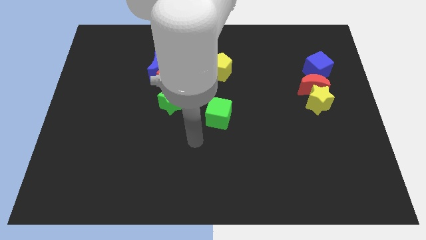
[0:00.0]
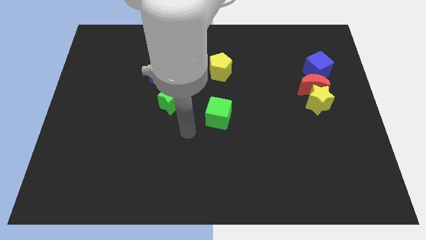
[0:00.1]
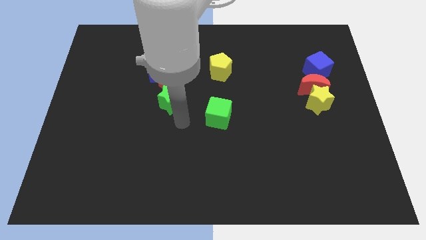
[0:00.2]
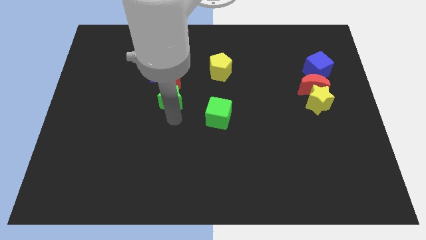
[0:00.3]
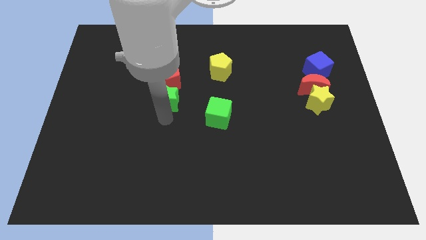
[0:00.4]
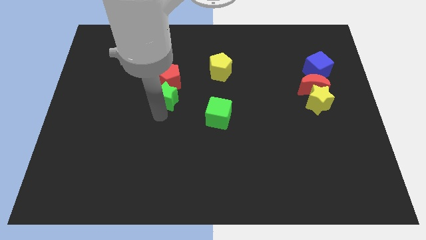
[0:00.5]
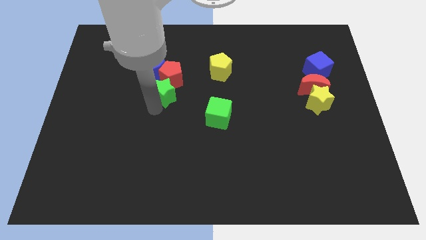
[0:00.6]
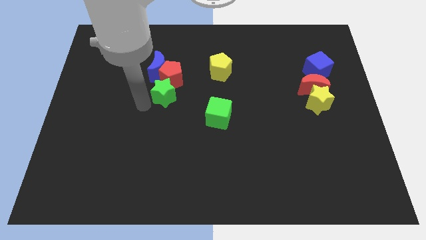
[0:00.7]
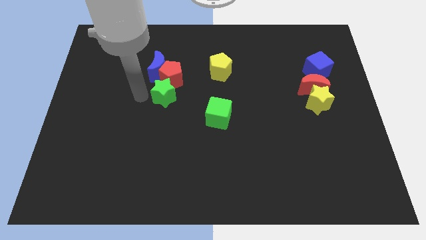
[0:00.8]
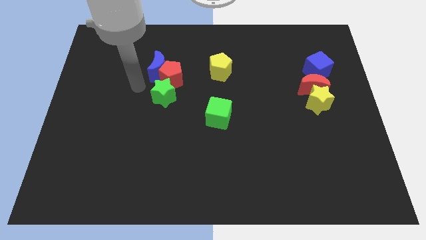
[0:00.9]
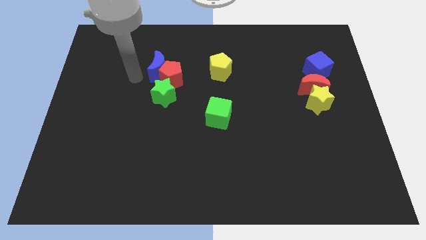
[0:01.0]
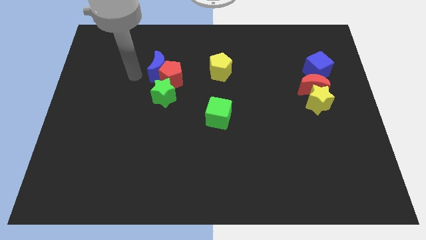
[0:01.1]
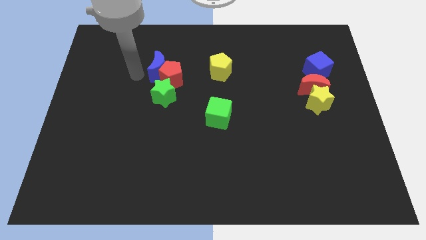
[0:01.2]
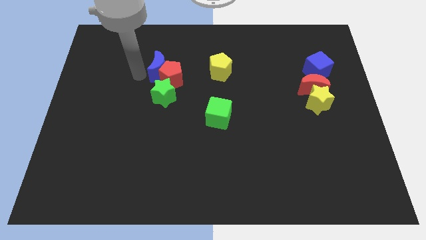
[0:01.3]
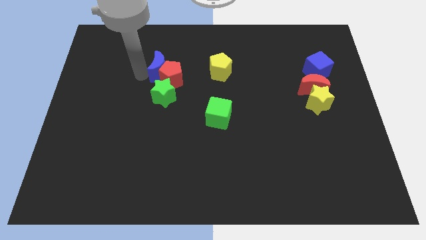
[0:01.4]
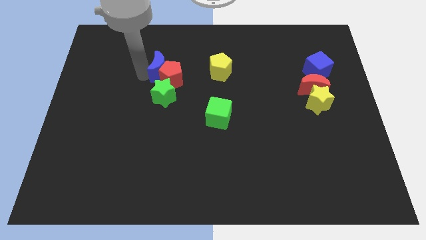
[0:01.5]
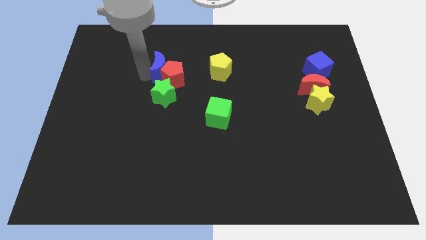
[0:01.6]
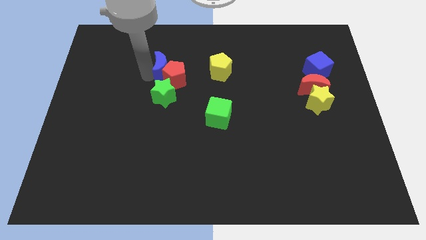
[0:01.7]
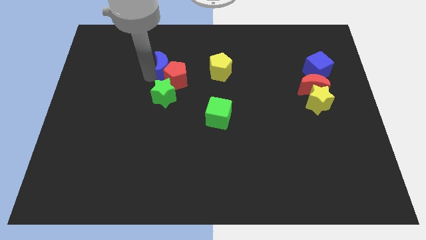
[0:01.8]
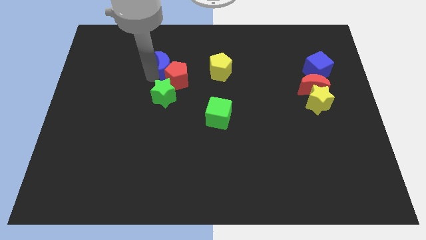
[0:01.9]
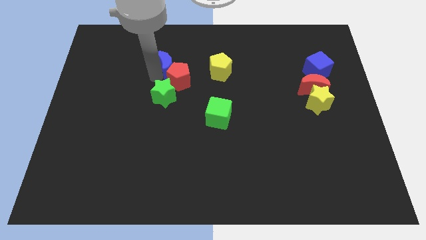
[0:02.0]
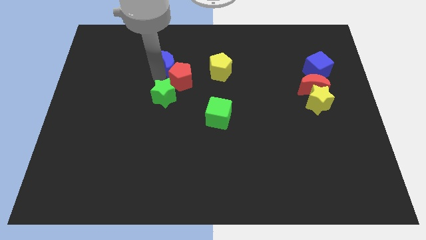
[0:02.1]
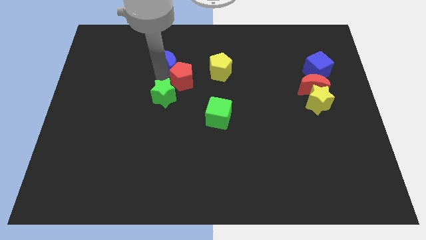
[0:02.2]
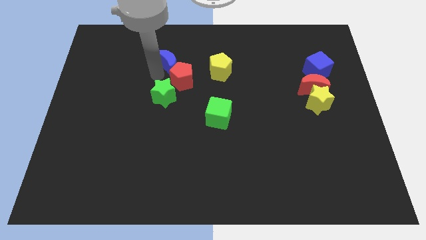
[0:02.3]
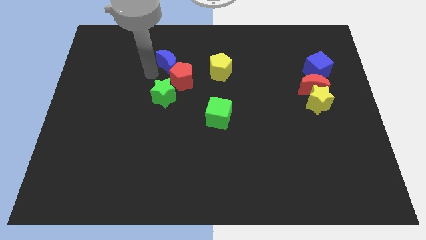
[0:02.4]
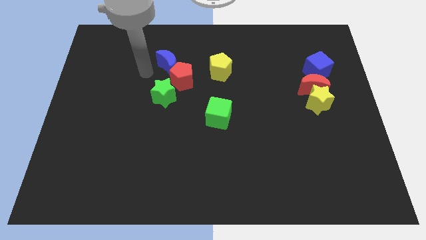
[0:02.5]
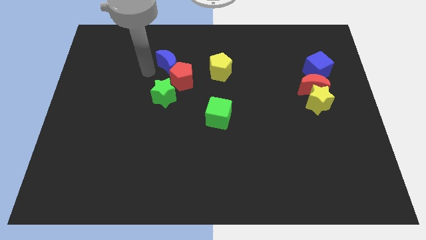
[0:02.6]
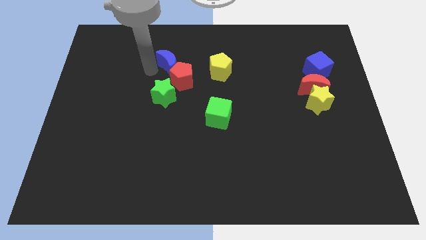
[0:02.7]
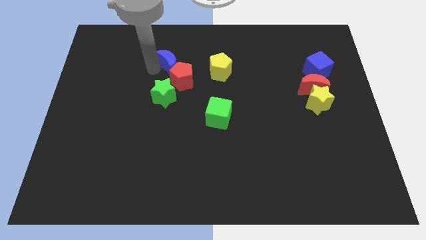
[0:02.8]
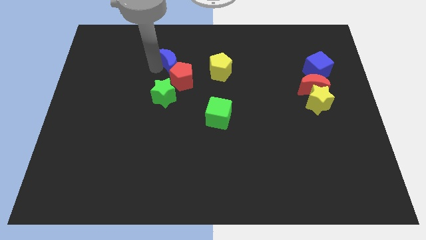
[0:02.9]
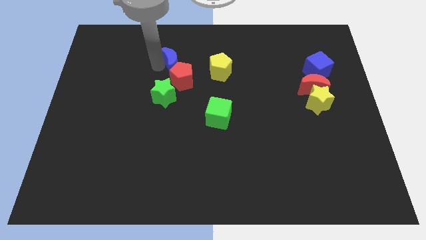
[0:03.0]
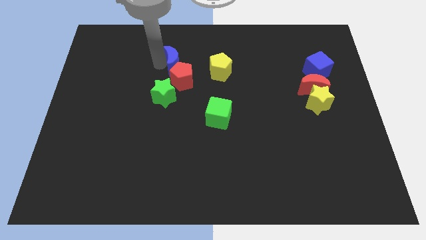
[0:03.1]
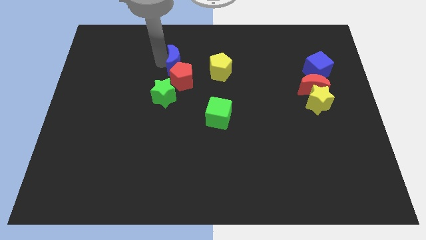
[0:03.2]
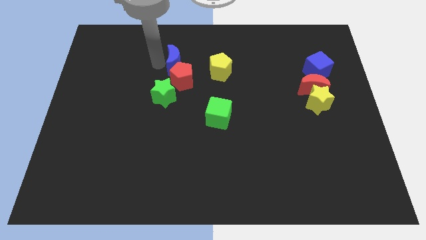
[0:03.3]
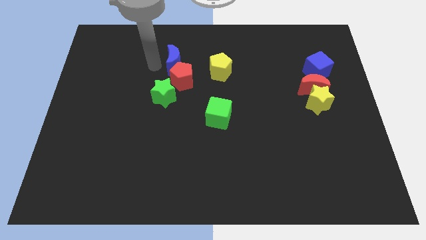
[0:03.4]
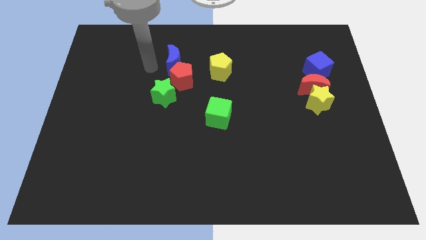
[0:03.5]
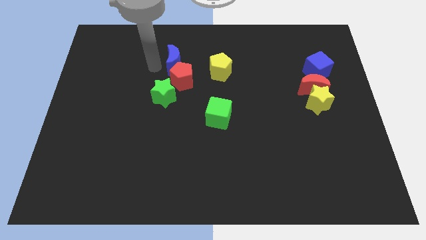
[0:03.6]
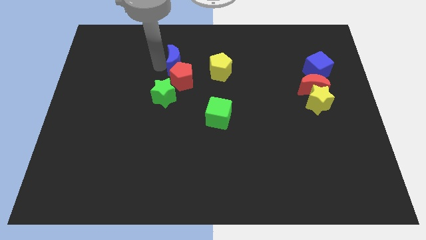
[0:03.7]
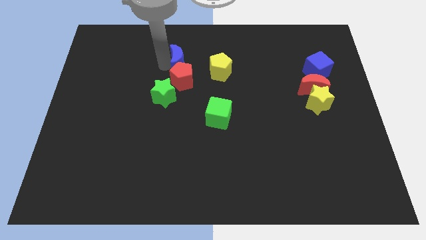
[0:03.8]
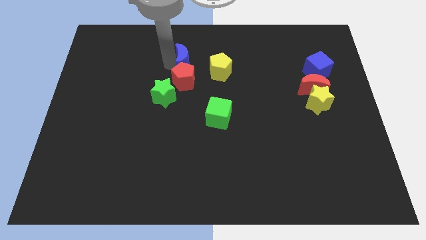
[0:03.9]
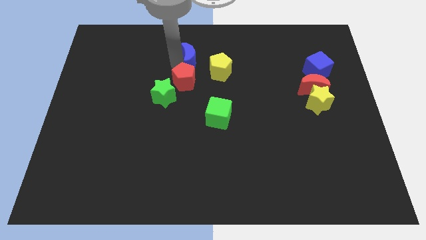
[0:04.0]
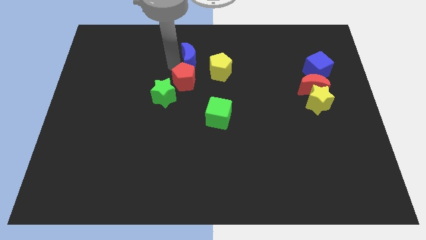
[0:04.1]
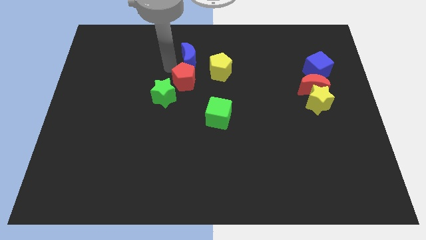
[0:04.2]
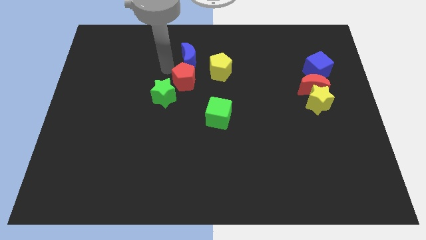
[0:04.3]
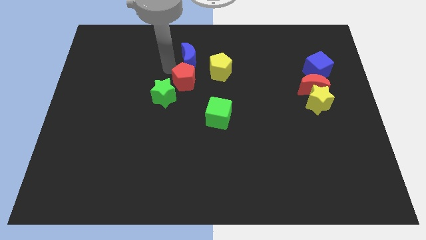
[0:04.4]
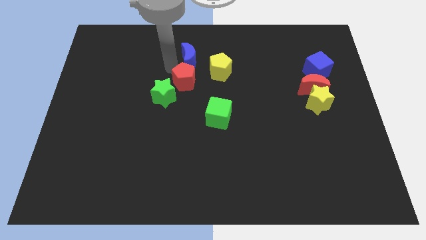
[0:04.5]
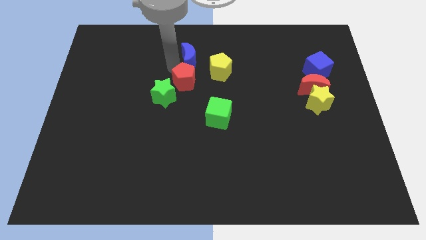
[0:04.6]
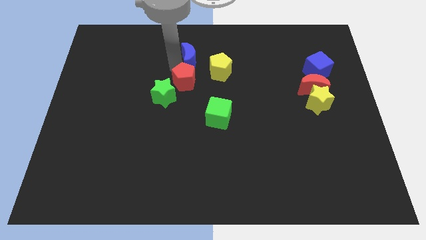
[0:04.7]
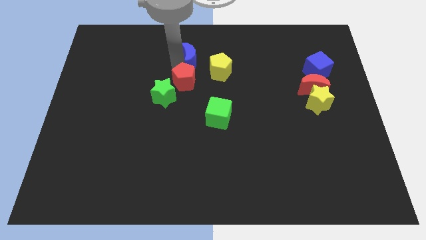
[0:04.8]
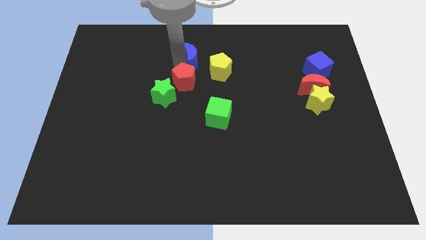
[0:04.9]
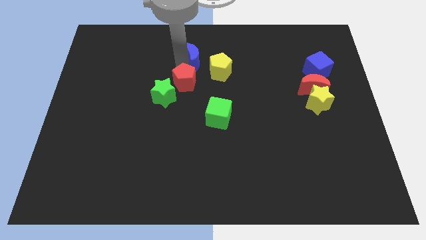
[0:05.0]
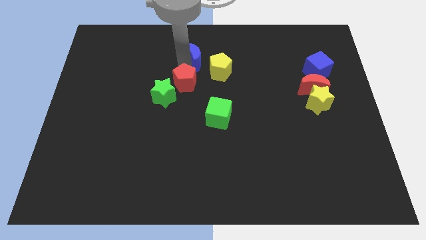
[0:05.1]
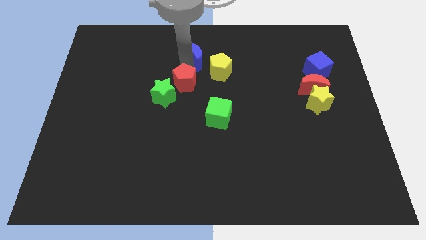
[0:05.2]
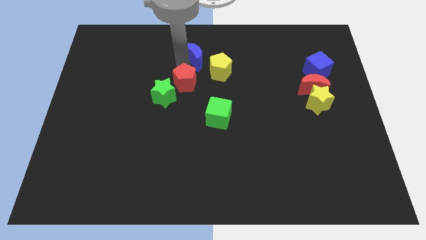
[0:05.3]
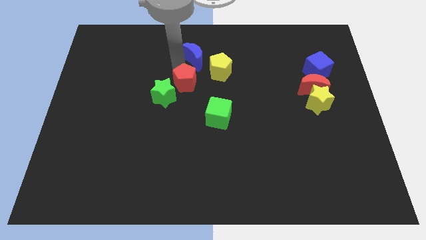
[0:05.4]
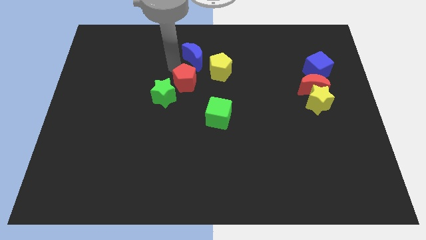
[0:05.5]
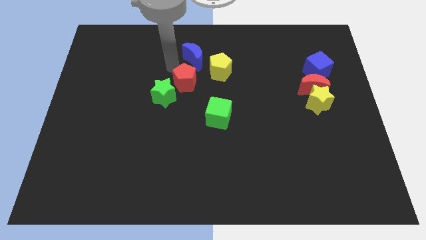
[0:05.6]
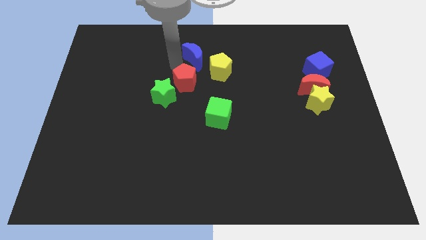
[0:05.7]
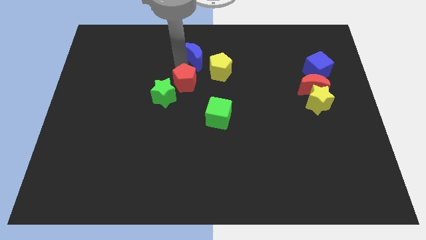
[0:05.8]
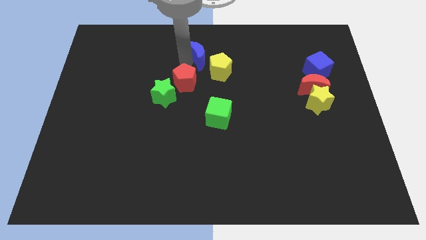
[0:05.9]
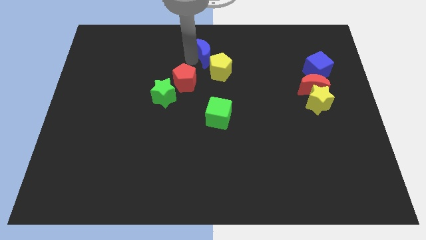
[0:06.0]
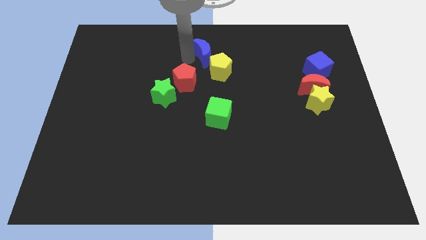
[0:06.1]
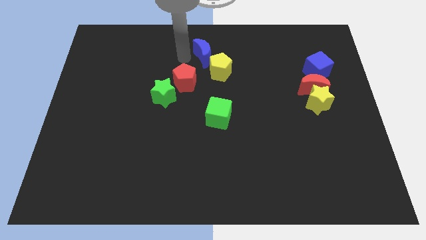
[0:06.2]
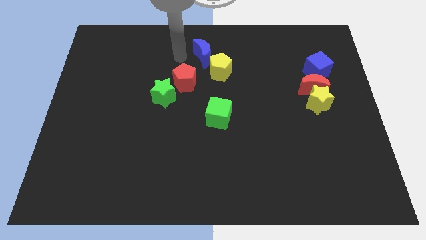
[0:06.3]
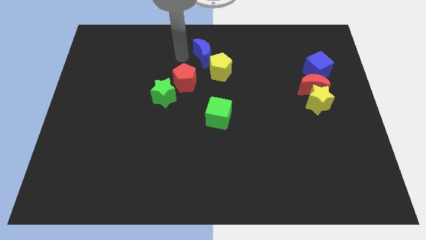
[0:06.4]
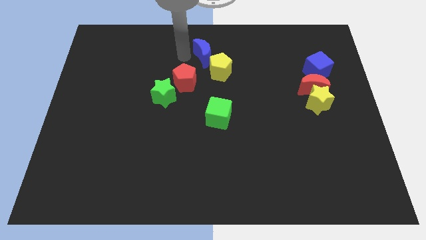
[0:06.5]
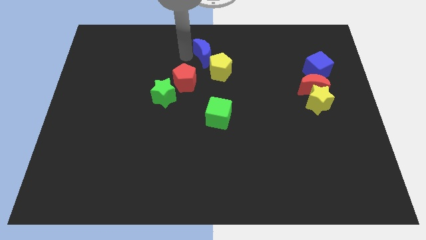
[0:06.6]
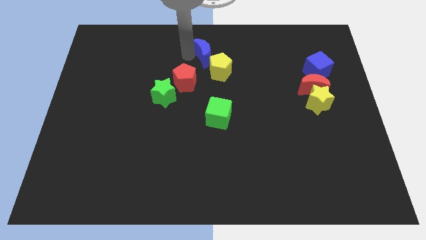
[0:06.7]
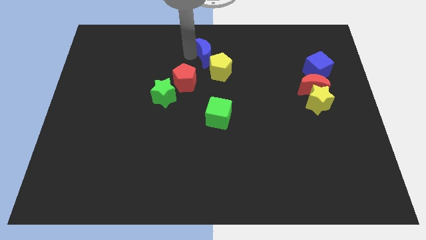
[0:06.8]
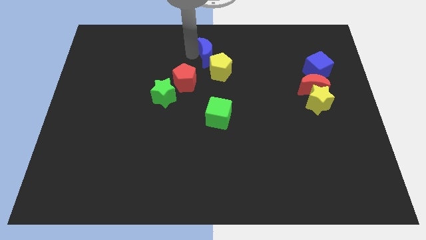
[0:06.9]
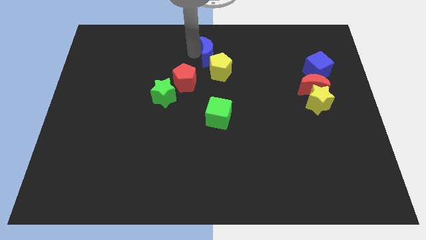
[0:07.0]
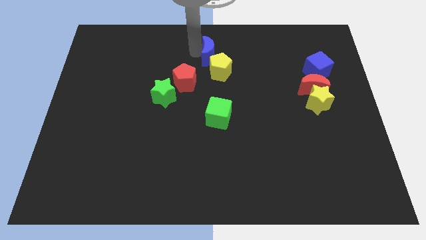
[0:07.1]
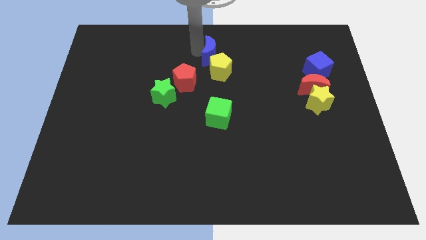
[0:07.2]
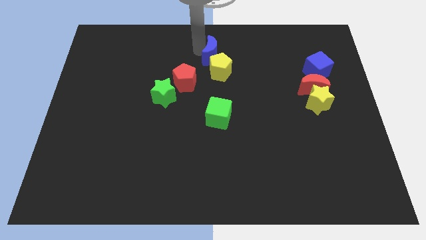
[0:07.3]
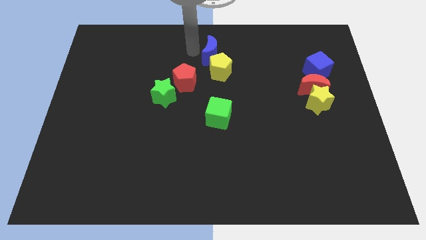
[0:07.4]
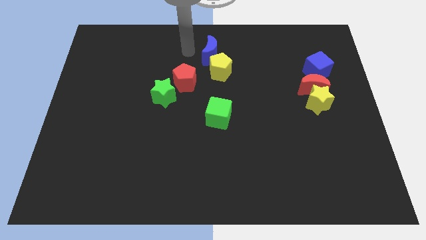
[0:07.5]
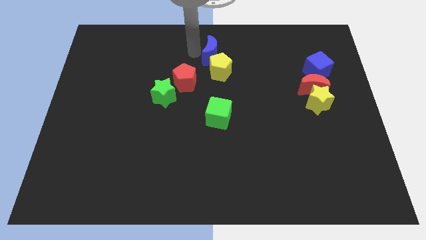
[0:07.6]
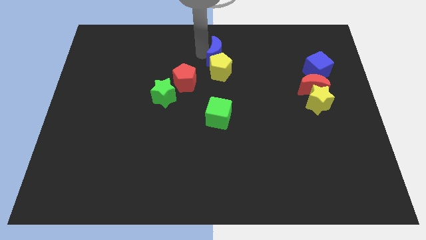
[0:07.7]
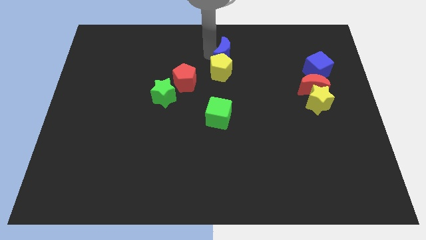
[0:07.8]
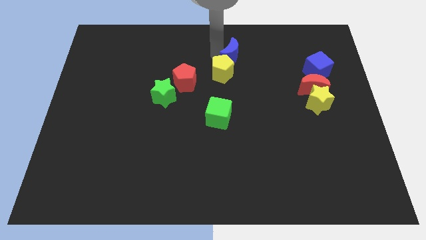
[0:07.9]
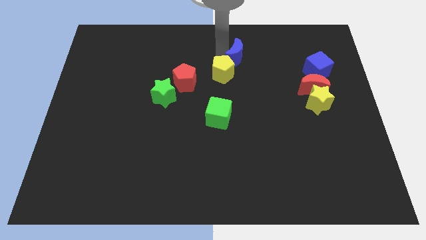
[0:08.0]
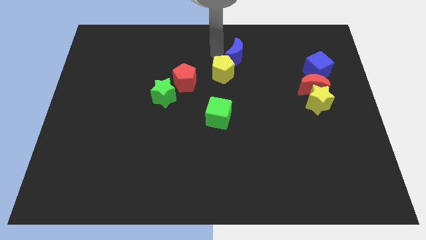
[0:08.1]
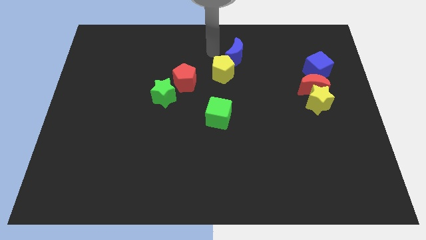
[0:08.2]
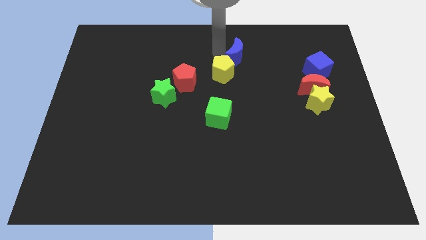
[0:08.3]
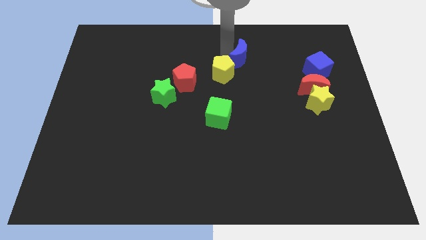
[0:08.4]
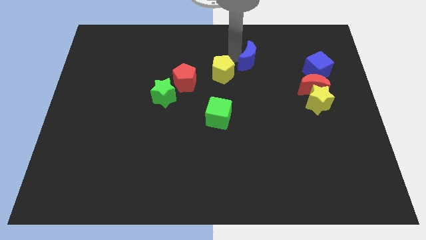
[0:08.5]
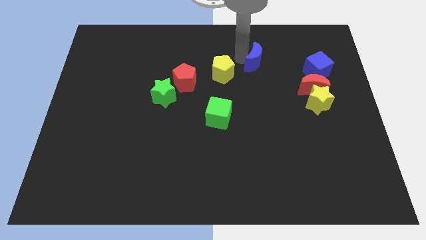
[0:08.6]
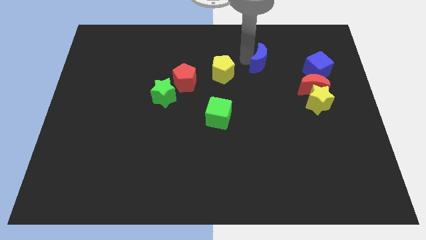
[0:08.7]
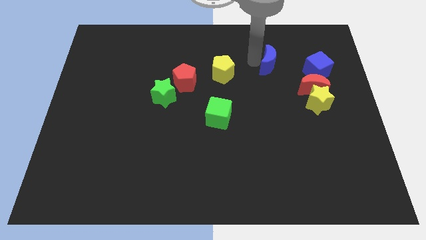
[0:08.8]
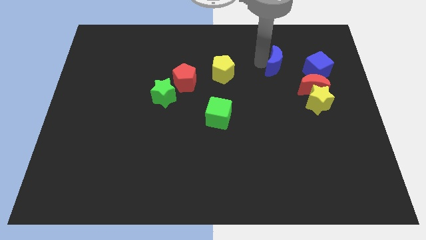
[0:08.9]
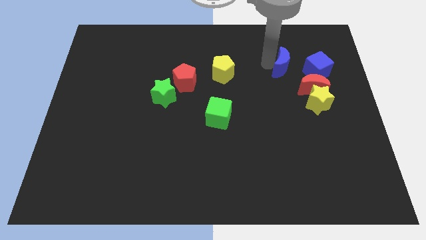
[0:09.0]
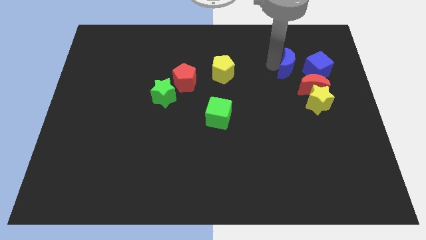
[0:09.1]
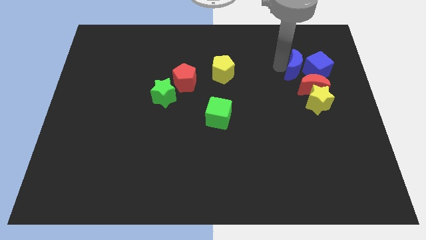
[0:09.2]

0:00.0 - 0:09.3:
slide the blue moon next to the blue cube
